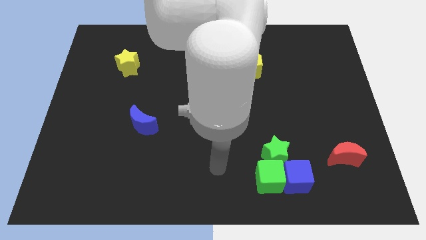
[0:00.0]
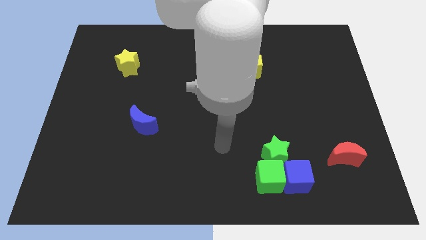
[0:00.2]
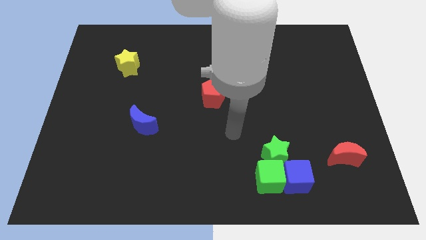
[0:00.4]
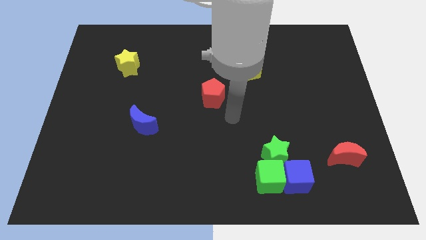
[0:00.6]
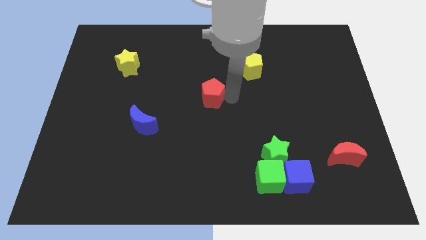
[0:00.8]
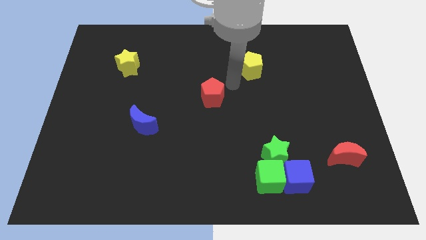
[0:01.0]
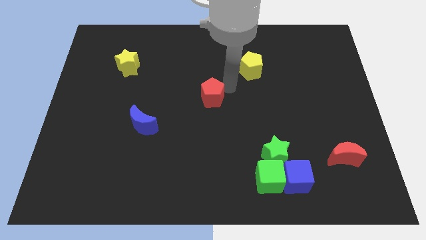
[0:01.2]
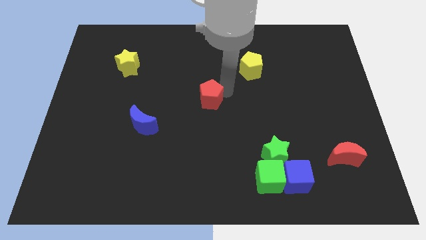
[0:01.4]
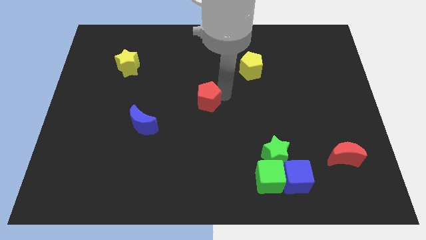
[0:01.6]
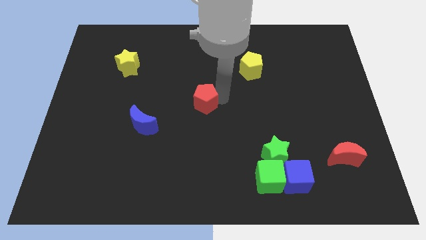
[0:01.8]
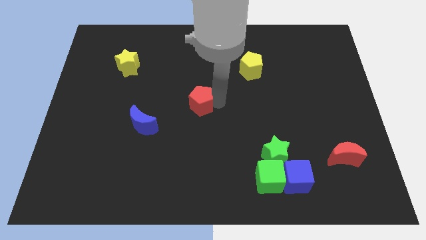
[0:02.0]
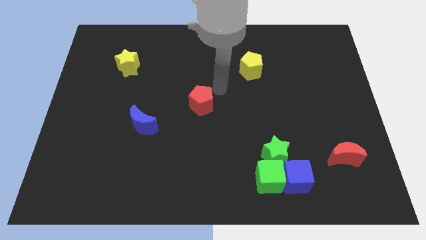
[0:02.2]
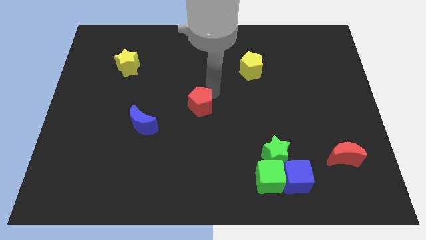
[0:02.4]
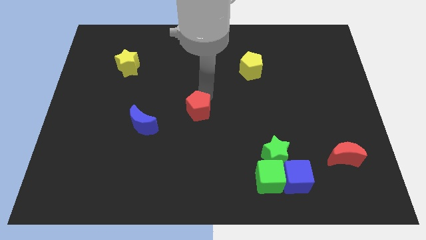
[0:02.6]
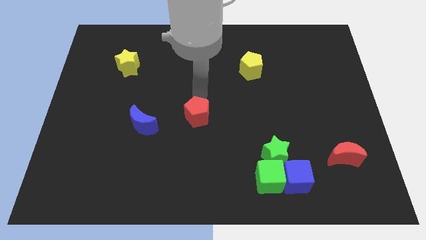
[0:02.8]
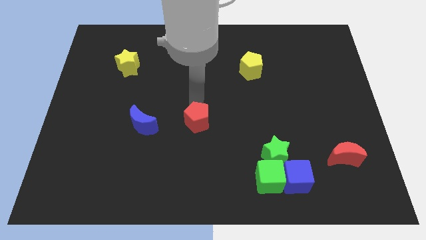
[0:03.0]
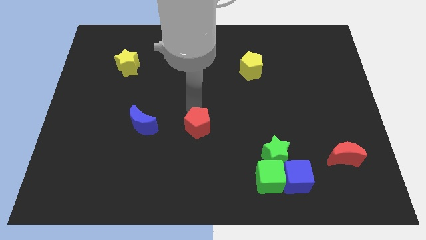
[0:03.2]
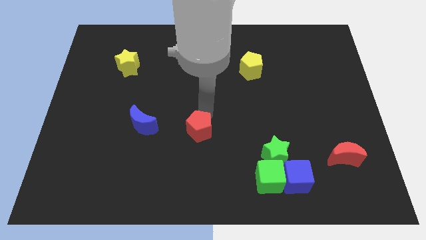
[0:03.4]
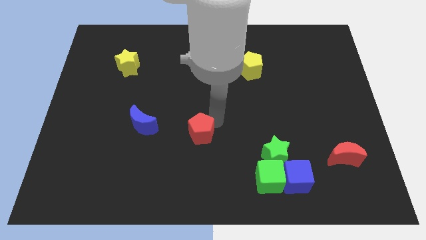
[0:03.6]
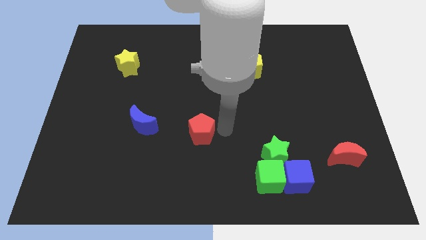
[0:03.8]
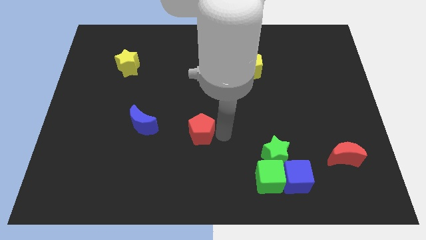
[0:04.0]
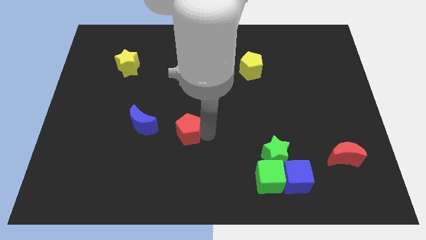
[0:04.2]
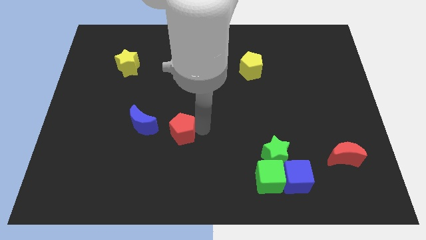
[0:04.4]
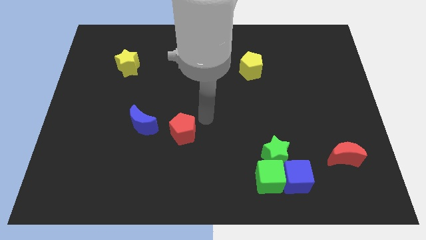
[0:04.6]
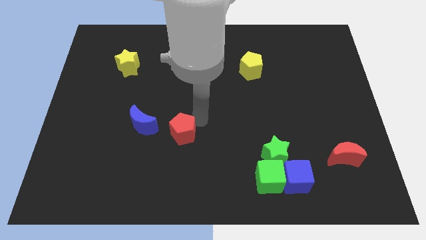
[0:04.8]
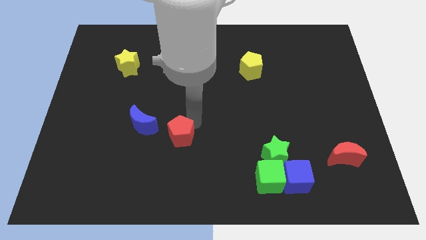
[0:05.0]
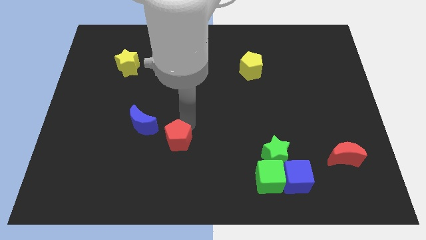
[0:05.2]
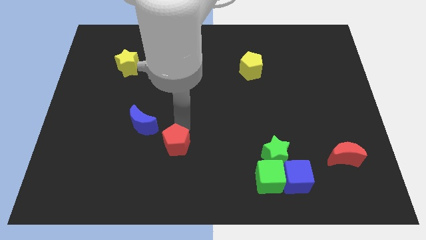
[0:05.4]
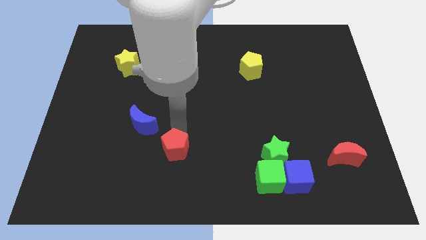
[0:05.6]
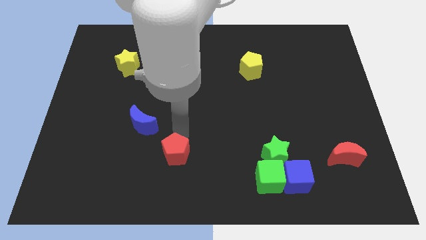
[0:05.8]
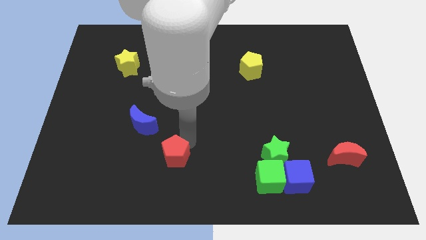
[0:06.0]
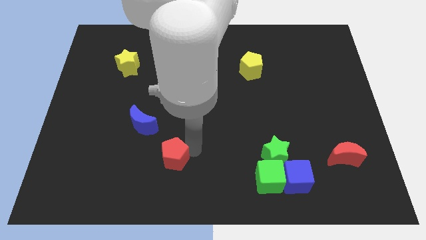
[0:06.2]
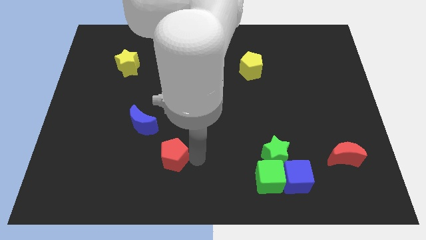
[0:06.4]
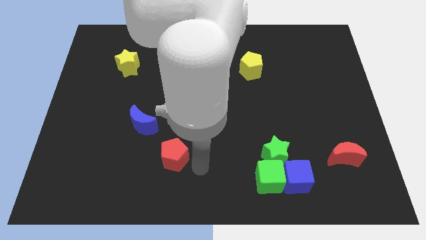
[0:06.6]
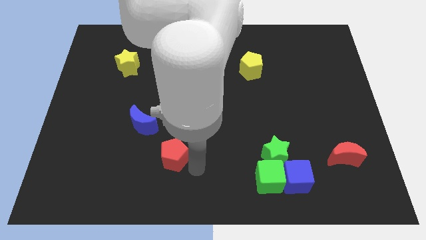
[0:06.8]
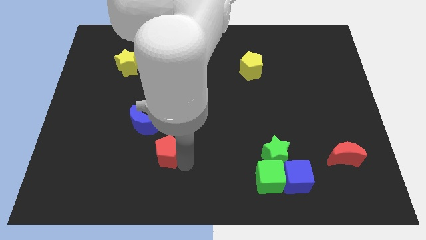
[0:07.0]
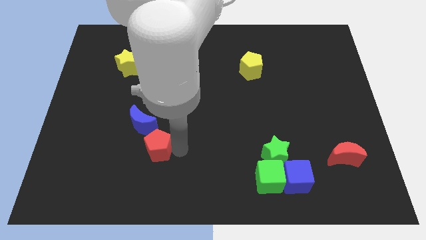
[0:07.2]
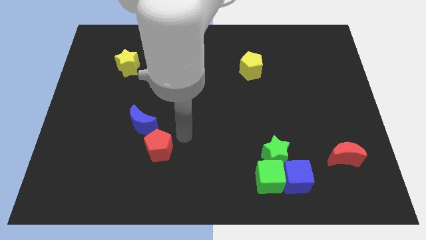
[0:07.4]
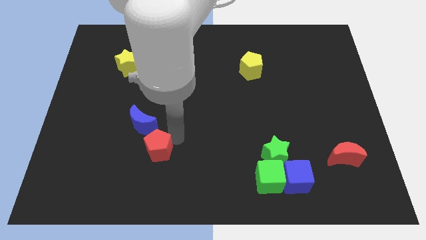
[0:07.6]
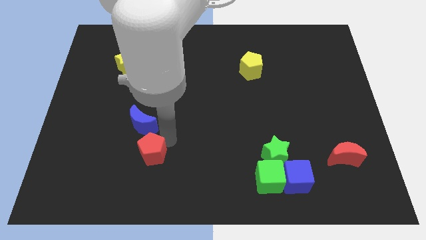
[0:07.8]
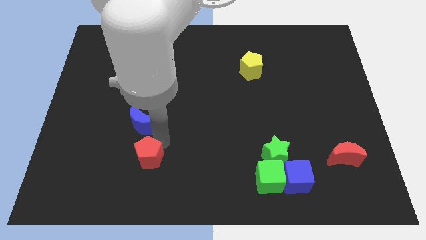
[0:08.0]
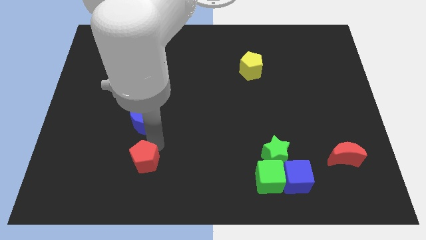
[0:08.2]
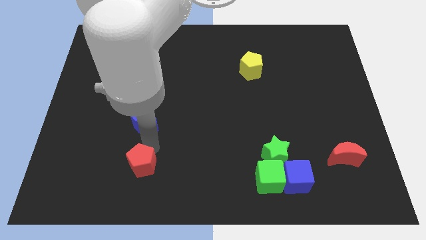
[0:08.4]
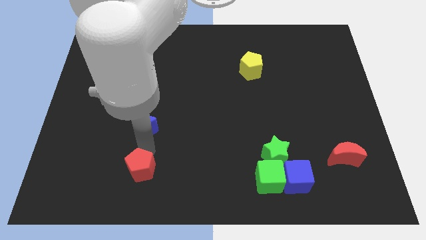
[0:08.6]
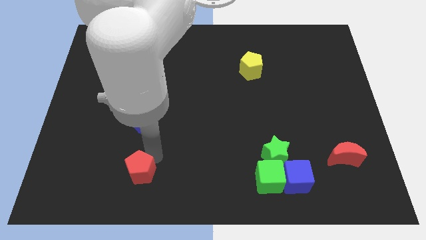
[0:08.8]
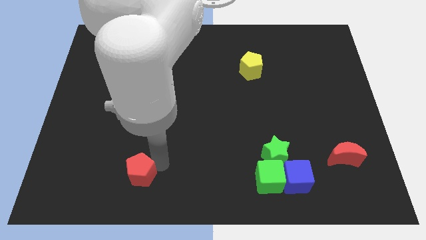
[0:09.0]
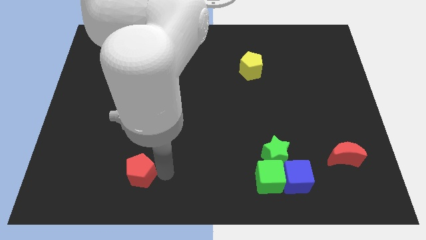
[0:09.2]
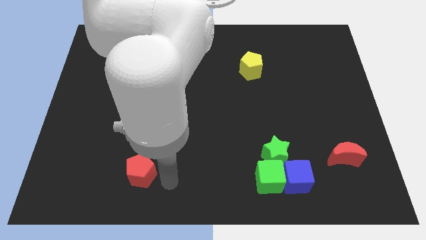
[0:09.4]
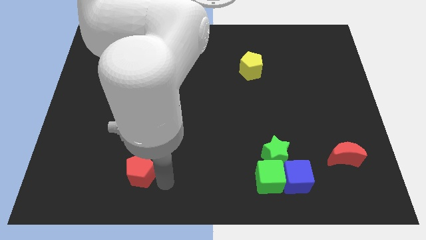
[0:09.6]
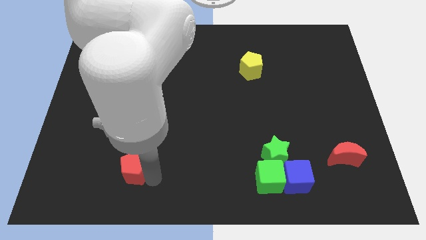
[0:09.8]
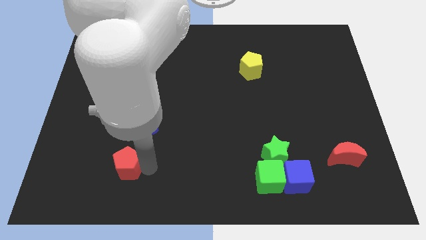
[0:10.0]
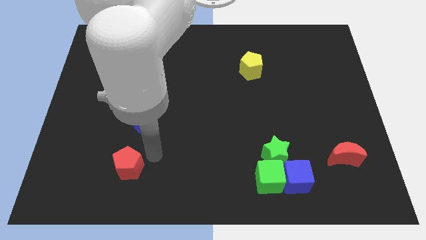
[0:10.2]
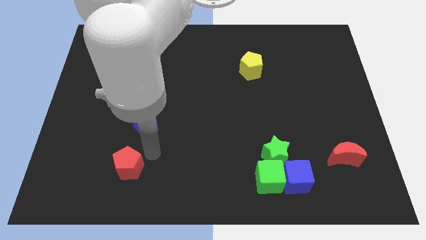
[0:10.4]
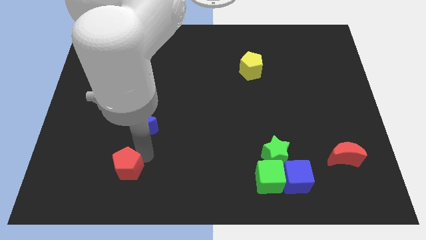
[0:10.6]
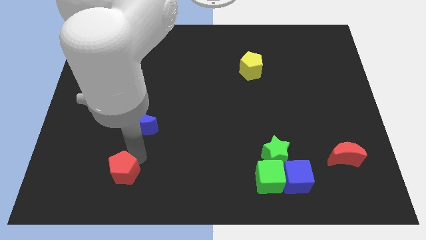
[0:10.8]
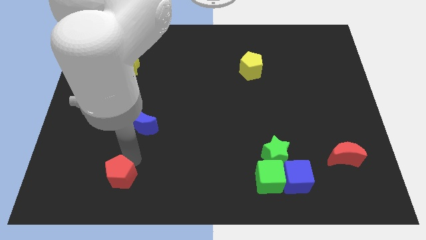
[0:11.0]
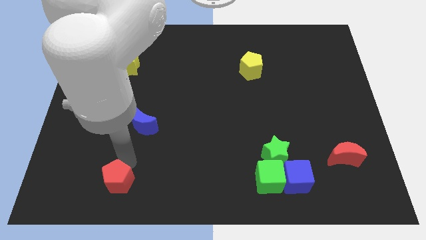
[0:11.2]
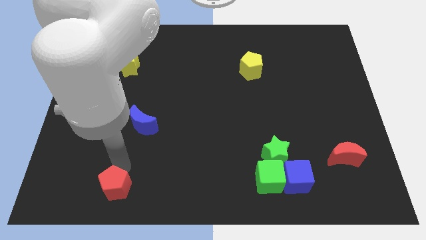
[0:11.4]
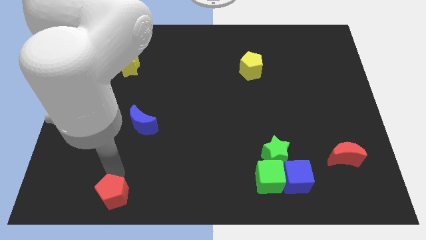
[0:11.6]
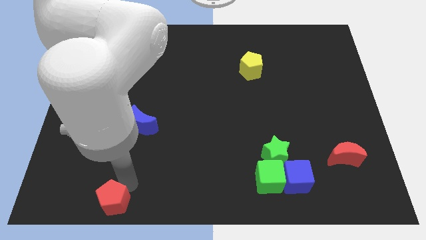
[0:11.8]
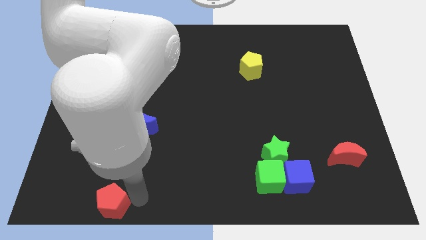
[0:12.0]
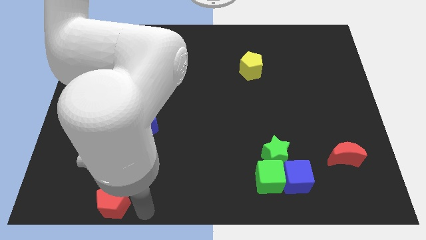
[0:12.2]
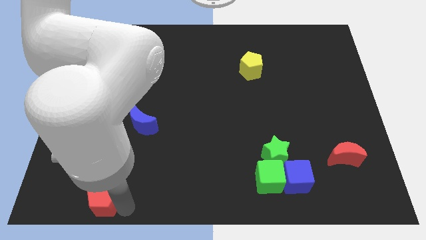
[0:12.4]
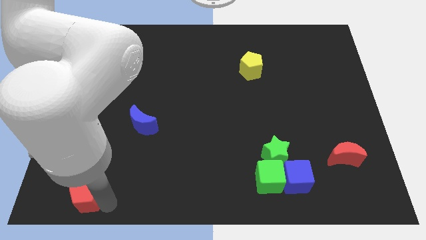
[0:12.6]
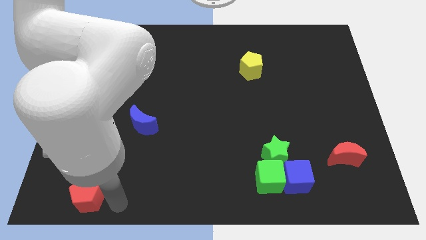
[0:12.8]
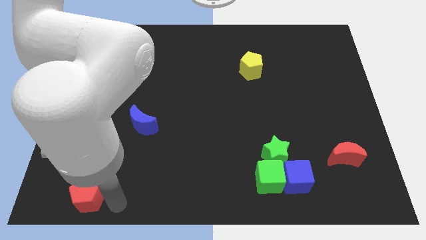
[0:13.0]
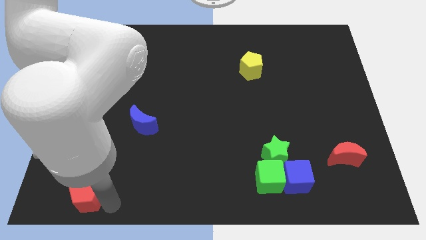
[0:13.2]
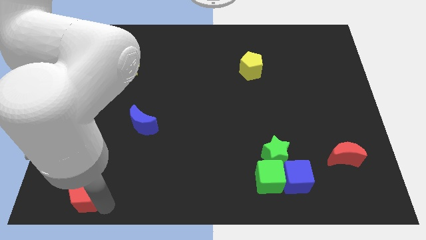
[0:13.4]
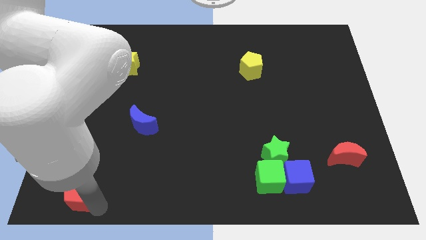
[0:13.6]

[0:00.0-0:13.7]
move the red pentagon to the bottom left of the board
